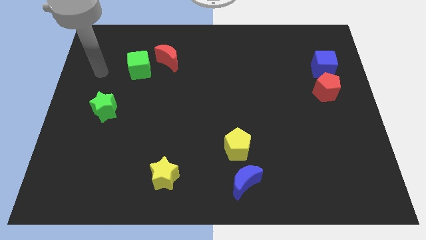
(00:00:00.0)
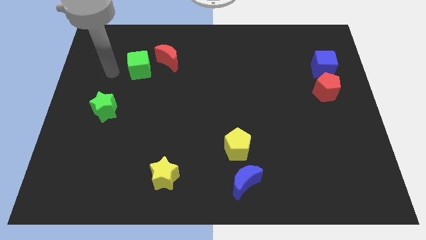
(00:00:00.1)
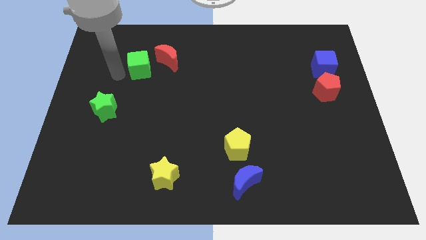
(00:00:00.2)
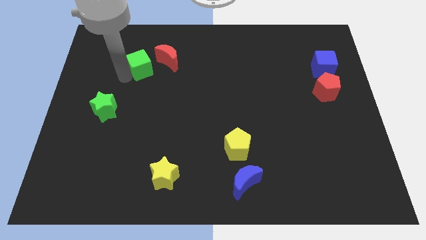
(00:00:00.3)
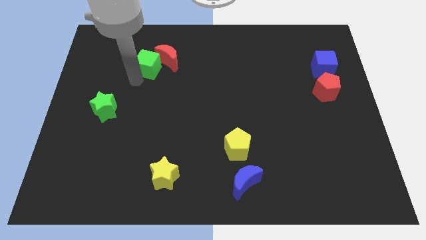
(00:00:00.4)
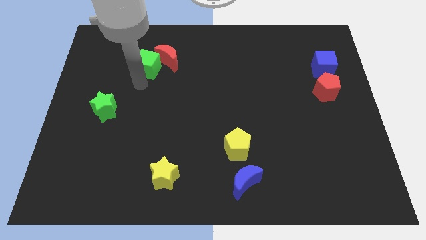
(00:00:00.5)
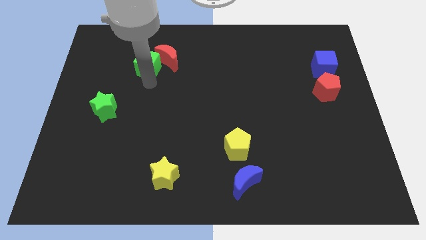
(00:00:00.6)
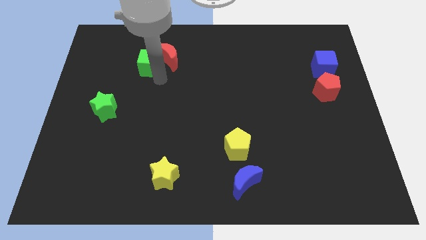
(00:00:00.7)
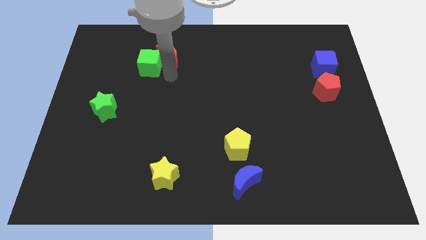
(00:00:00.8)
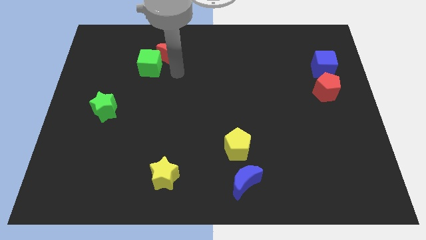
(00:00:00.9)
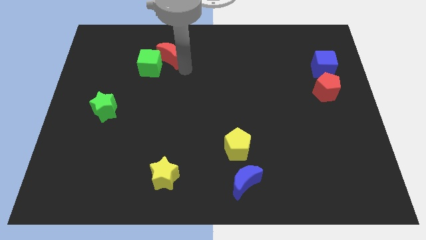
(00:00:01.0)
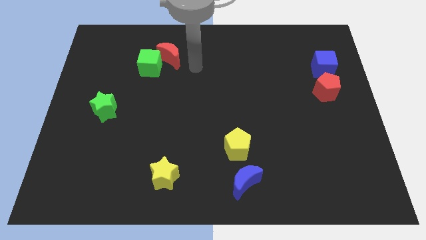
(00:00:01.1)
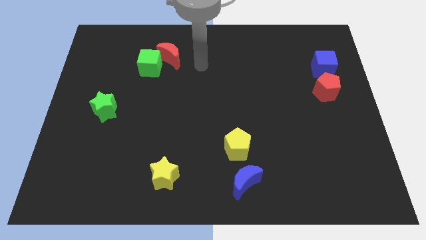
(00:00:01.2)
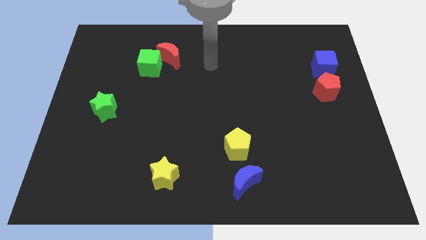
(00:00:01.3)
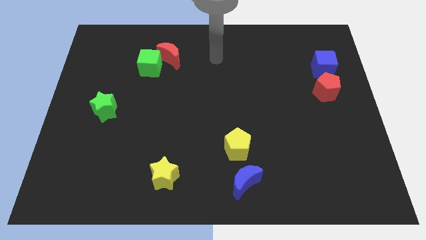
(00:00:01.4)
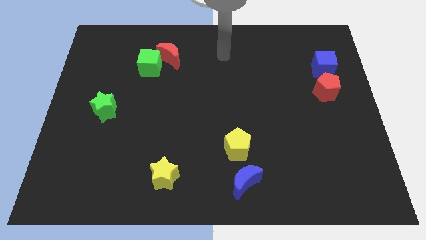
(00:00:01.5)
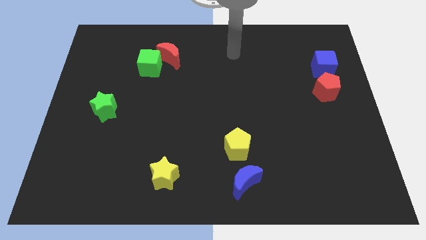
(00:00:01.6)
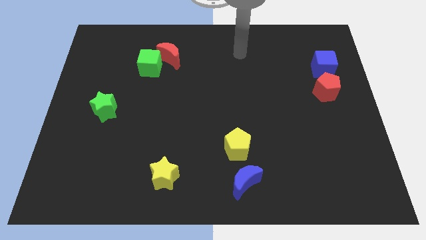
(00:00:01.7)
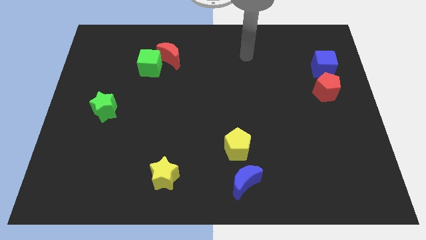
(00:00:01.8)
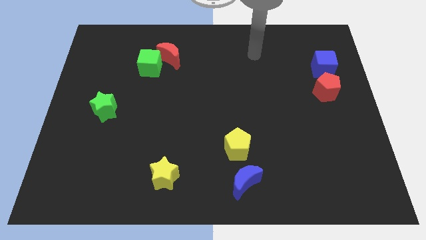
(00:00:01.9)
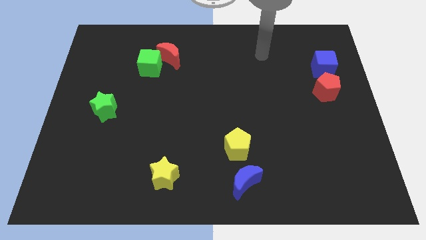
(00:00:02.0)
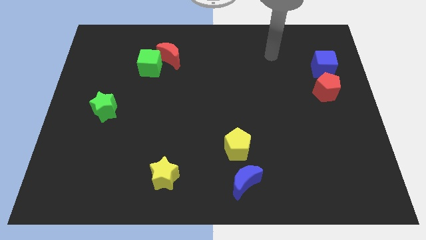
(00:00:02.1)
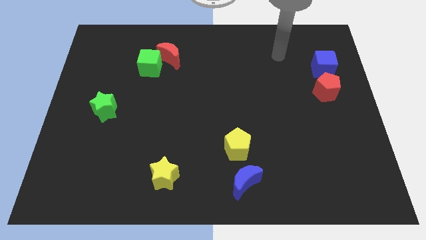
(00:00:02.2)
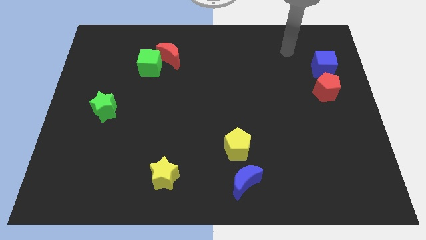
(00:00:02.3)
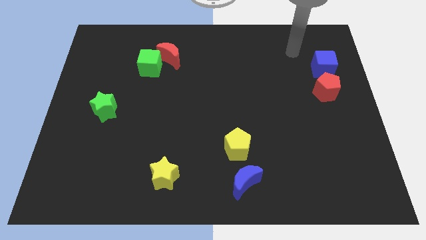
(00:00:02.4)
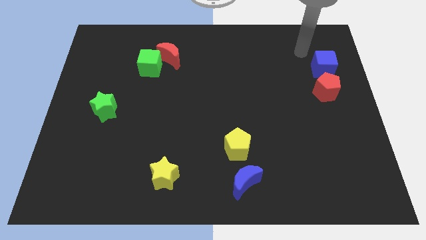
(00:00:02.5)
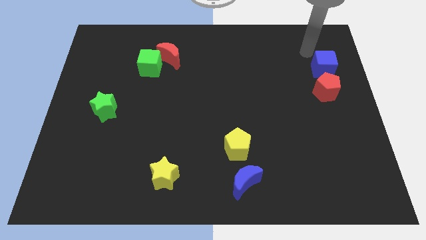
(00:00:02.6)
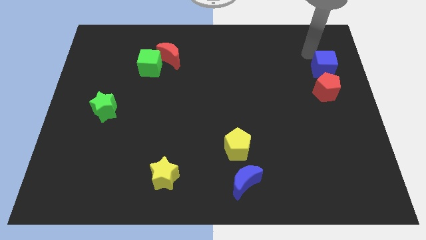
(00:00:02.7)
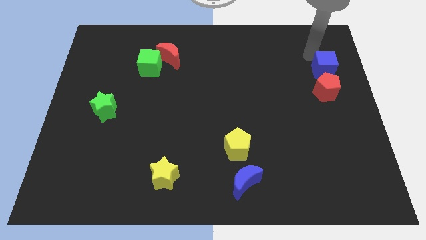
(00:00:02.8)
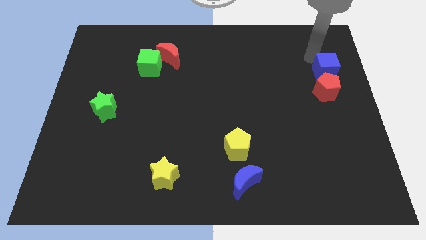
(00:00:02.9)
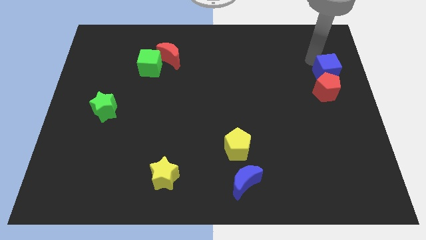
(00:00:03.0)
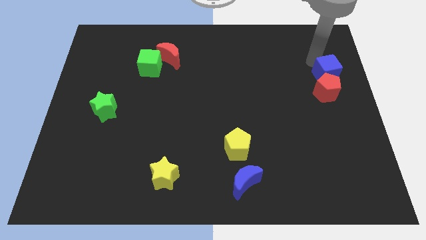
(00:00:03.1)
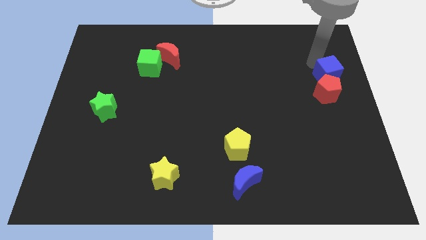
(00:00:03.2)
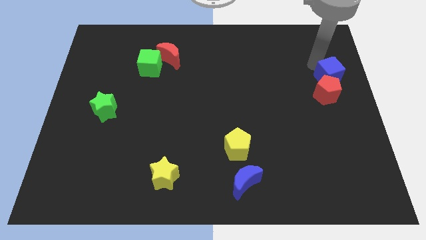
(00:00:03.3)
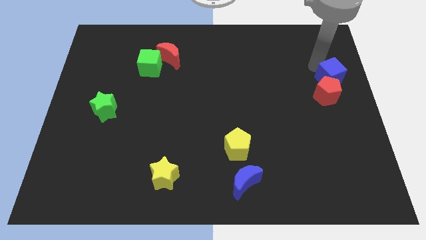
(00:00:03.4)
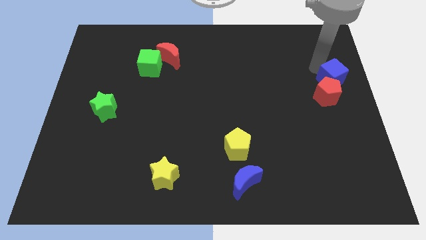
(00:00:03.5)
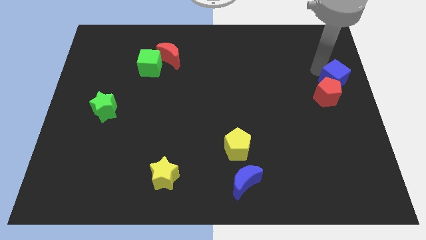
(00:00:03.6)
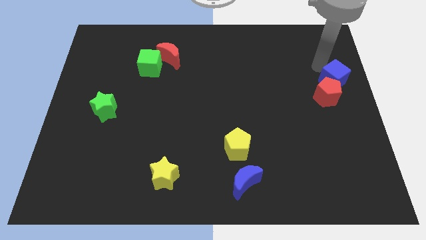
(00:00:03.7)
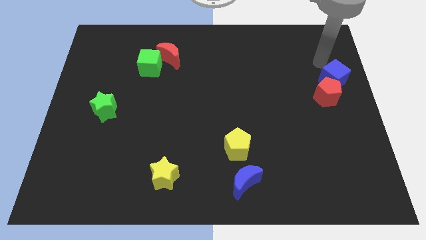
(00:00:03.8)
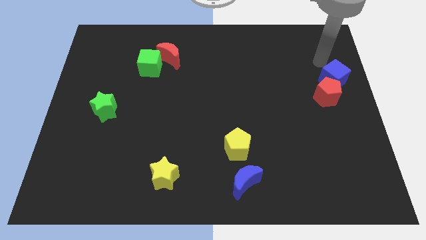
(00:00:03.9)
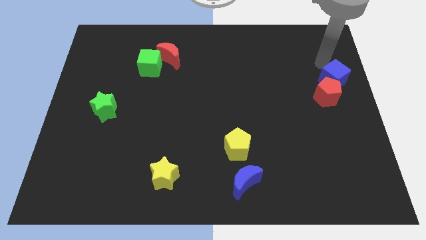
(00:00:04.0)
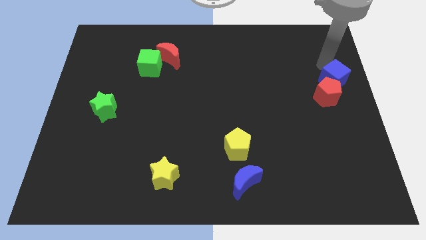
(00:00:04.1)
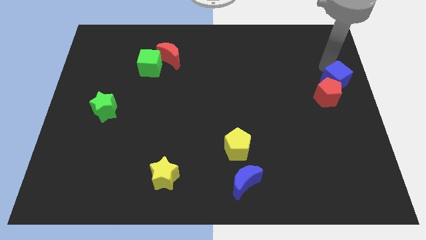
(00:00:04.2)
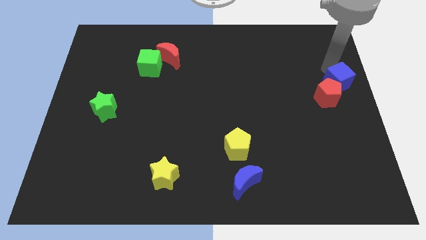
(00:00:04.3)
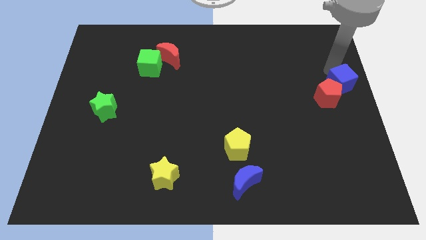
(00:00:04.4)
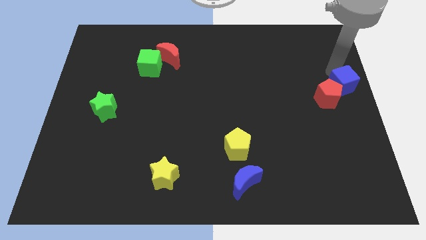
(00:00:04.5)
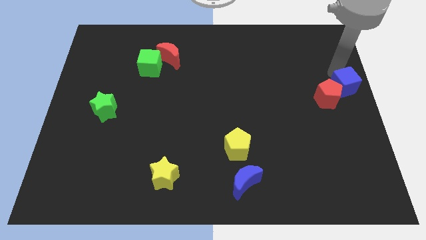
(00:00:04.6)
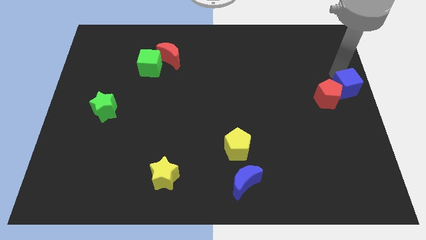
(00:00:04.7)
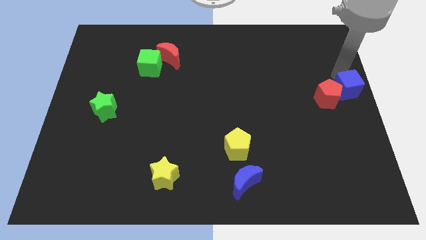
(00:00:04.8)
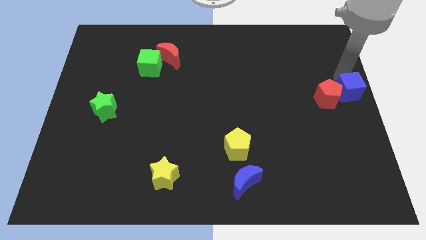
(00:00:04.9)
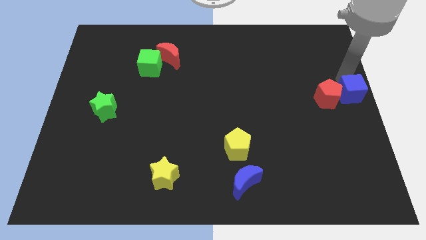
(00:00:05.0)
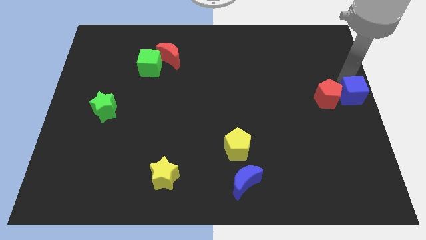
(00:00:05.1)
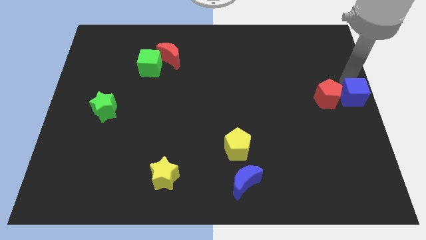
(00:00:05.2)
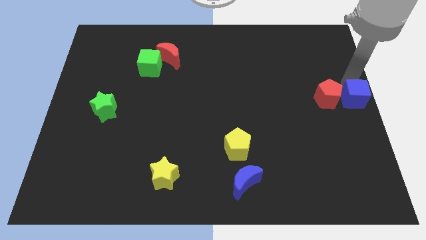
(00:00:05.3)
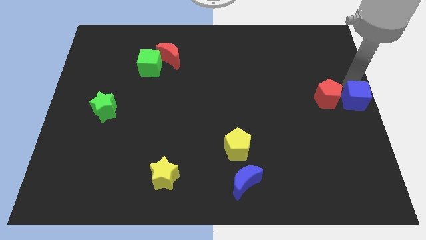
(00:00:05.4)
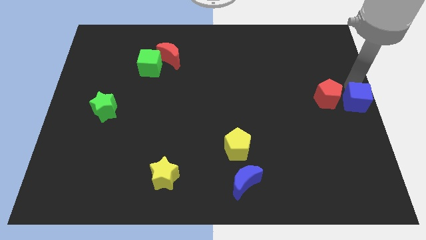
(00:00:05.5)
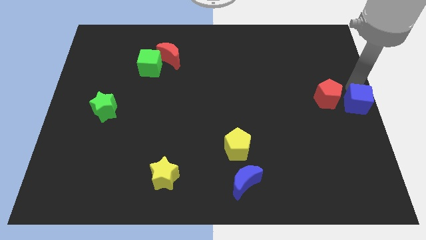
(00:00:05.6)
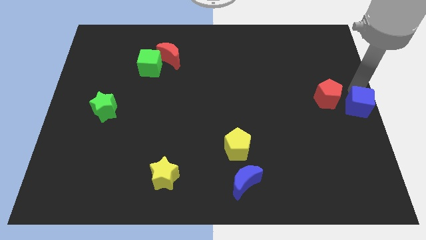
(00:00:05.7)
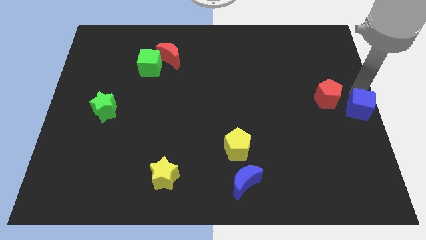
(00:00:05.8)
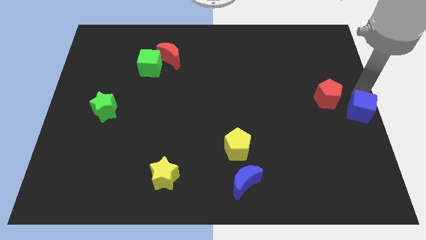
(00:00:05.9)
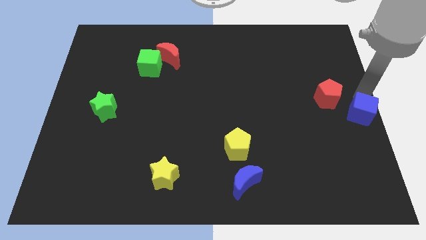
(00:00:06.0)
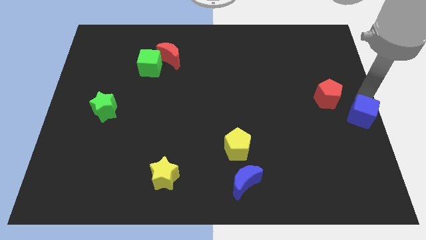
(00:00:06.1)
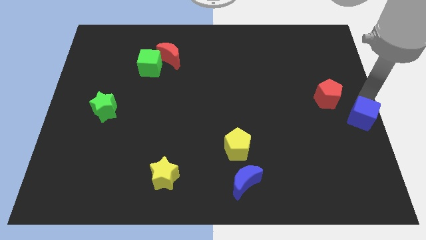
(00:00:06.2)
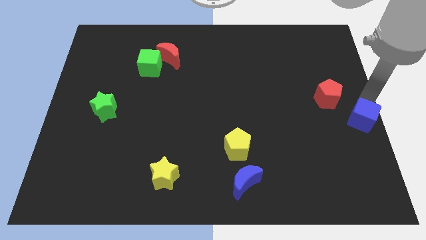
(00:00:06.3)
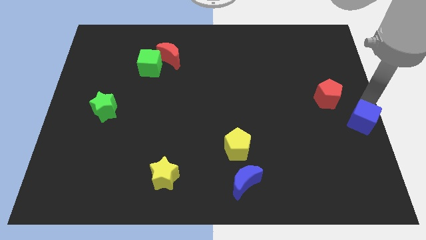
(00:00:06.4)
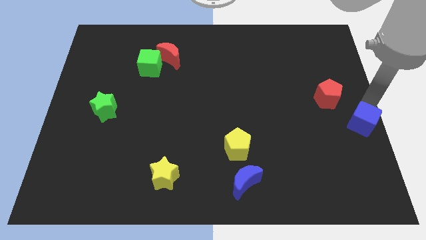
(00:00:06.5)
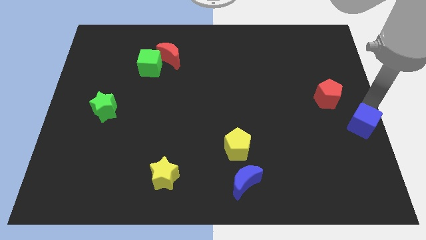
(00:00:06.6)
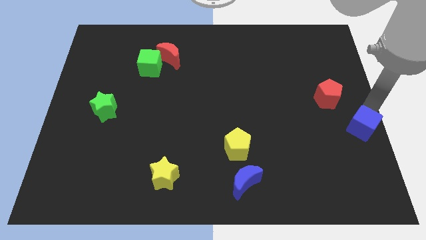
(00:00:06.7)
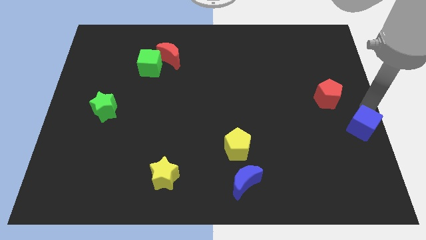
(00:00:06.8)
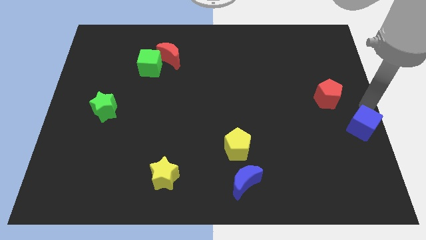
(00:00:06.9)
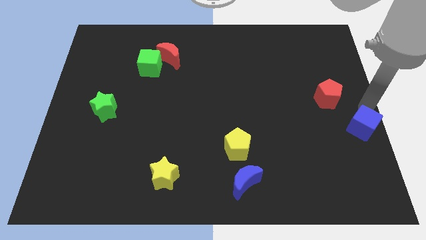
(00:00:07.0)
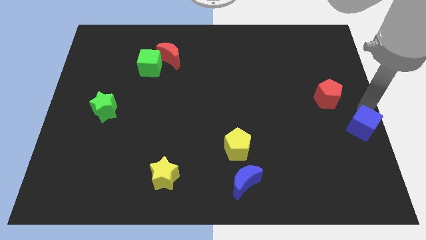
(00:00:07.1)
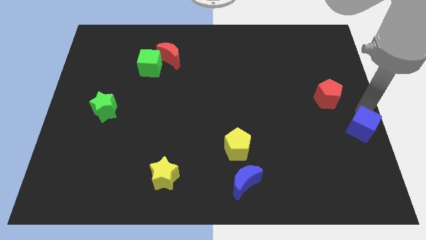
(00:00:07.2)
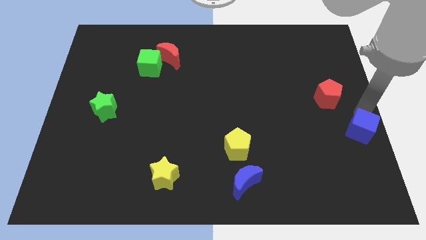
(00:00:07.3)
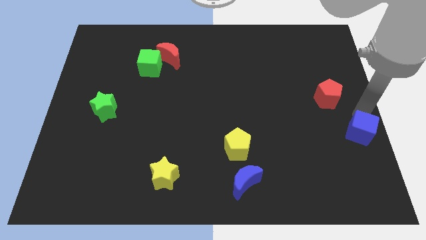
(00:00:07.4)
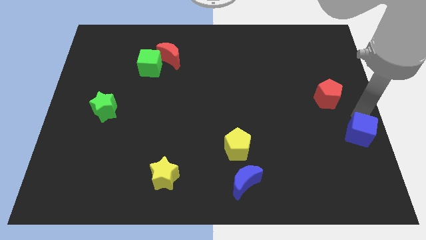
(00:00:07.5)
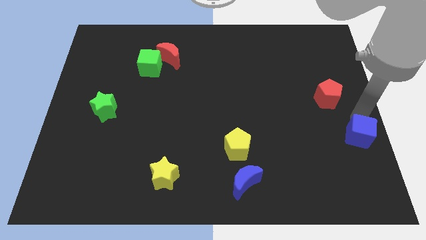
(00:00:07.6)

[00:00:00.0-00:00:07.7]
slide the blue cube down

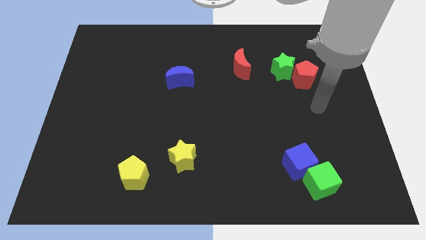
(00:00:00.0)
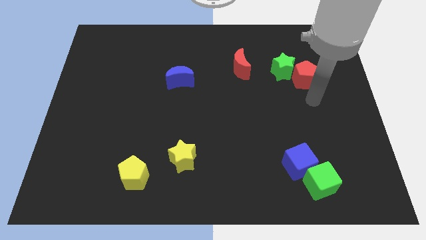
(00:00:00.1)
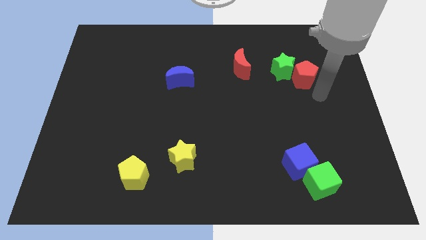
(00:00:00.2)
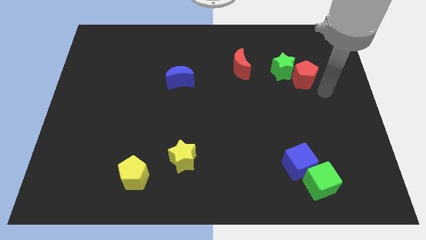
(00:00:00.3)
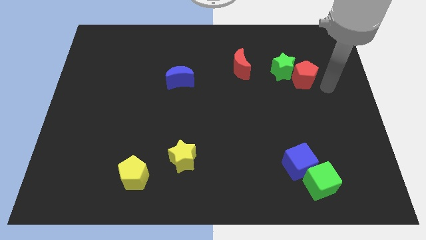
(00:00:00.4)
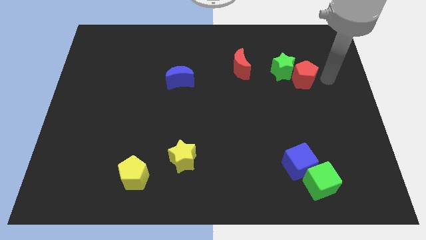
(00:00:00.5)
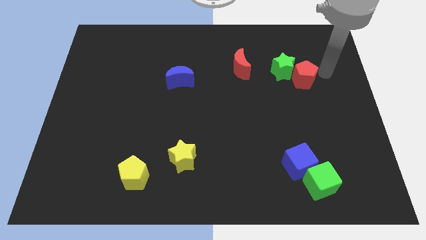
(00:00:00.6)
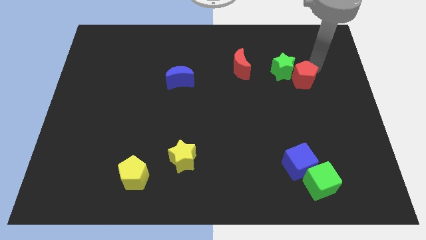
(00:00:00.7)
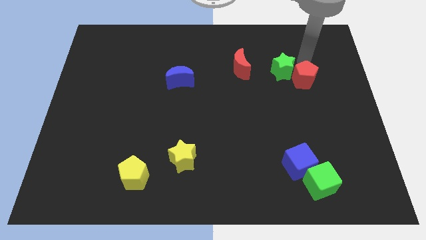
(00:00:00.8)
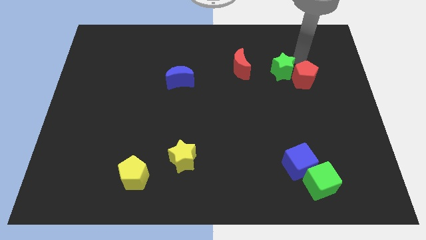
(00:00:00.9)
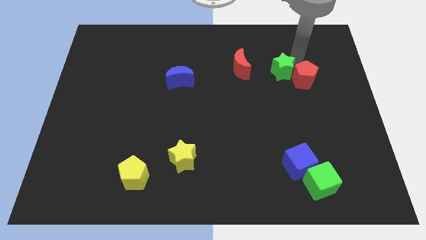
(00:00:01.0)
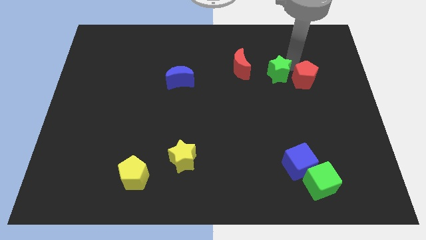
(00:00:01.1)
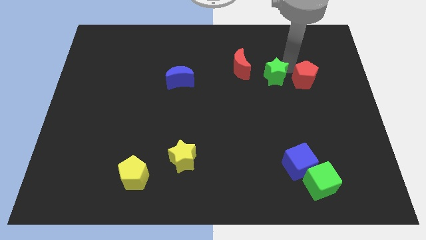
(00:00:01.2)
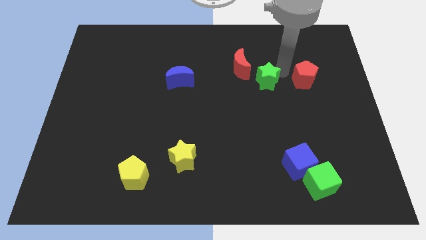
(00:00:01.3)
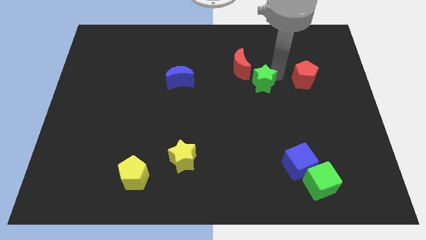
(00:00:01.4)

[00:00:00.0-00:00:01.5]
slide the green star downwards and left a little bit
